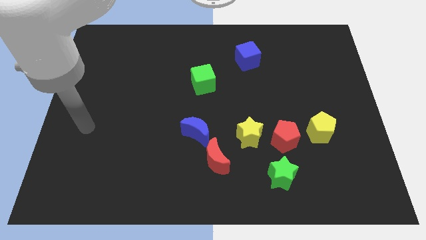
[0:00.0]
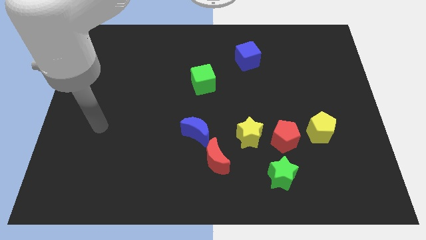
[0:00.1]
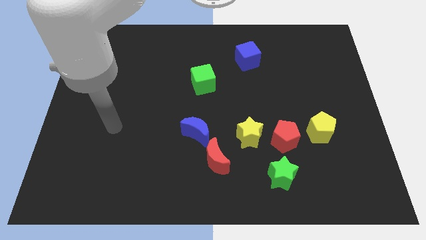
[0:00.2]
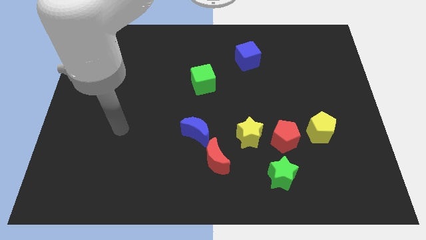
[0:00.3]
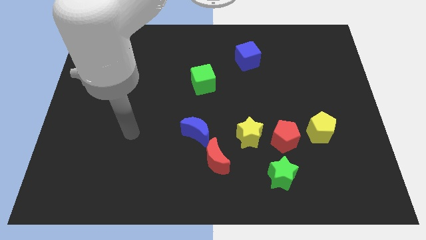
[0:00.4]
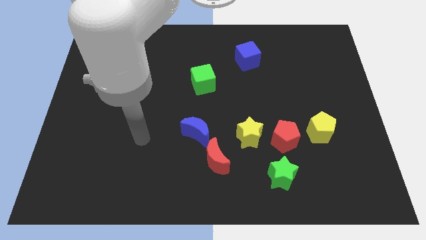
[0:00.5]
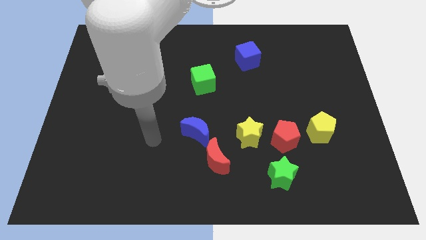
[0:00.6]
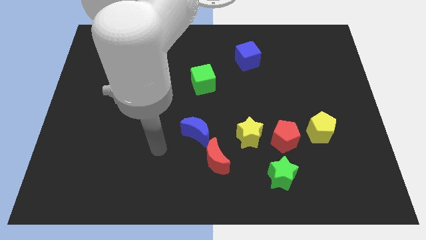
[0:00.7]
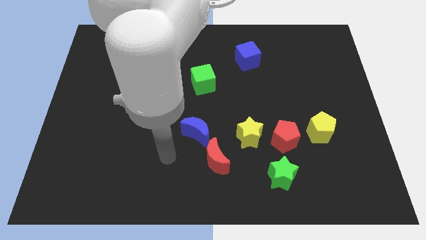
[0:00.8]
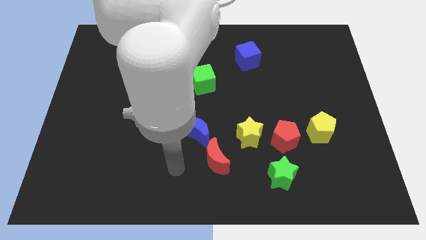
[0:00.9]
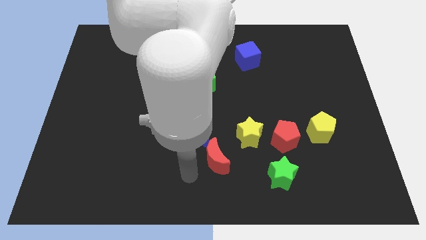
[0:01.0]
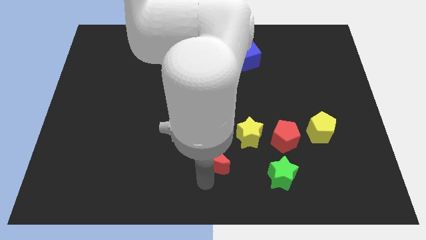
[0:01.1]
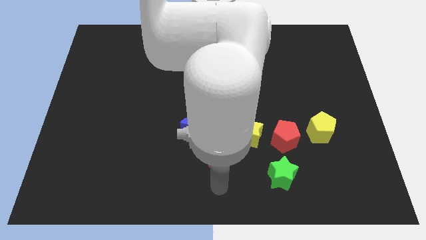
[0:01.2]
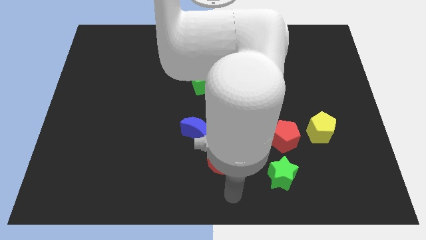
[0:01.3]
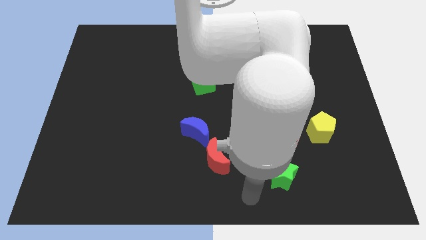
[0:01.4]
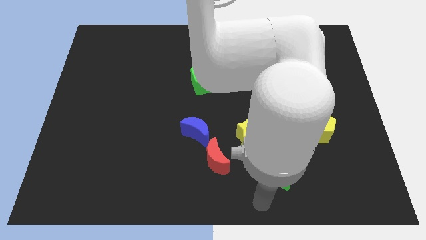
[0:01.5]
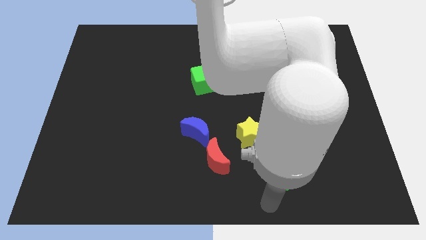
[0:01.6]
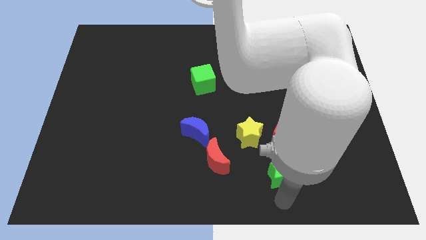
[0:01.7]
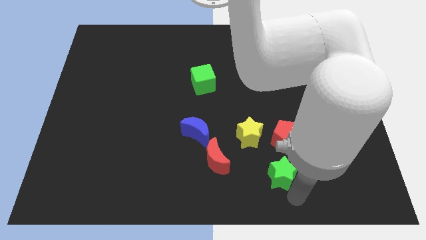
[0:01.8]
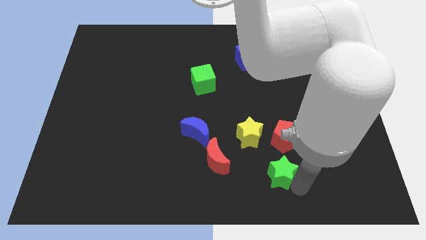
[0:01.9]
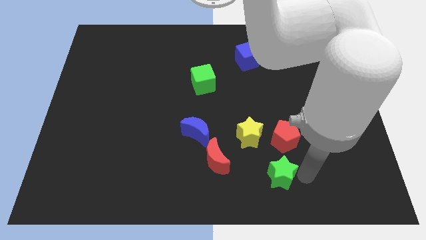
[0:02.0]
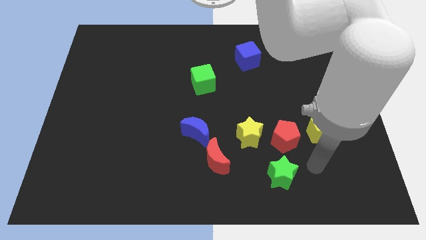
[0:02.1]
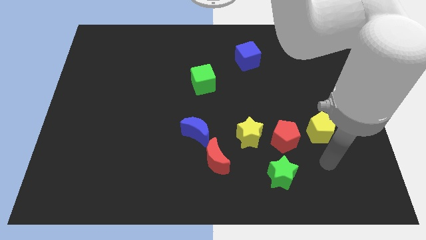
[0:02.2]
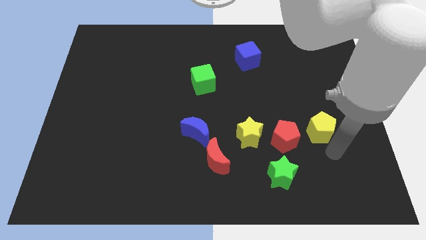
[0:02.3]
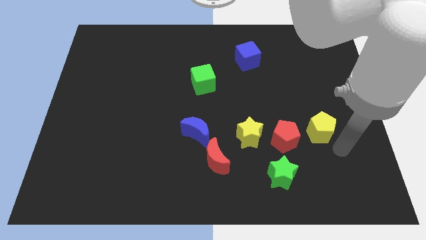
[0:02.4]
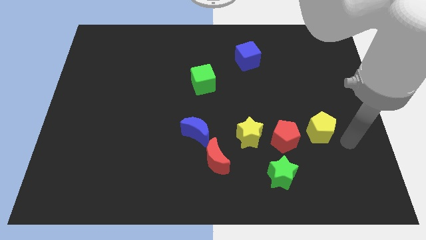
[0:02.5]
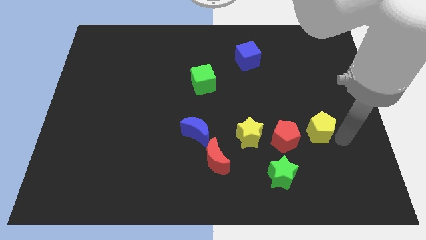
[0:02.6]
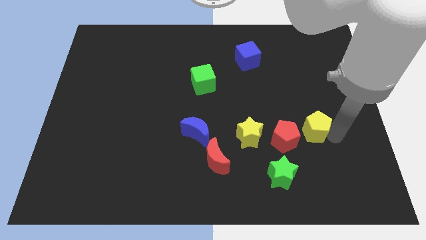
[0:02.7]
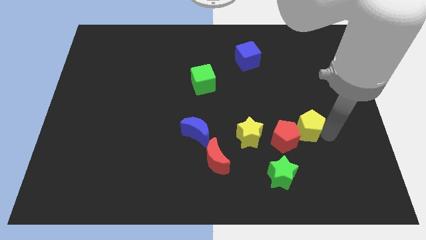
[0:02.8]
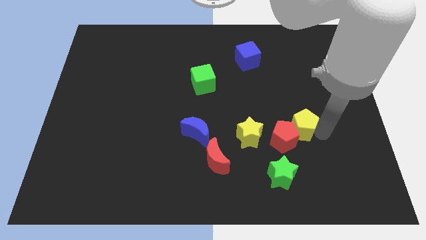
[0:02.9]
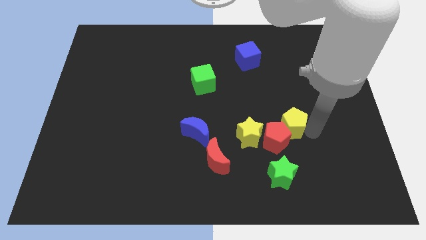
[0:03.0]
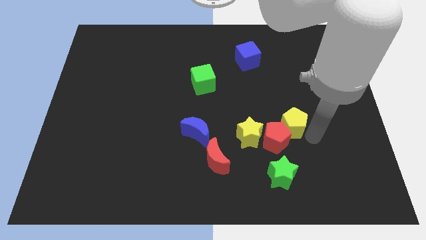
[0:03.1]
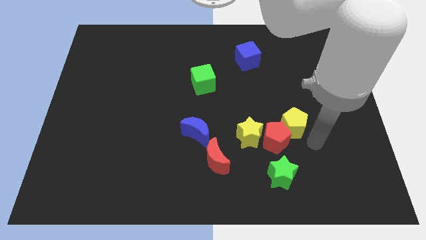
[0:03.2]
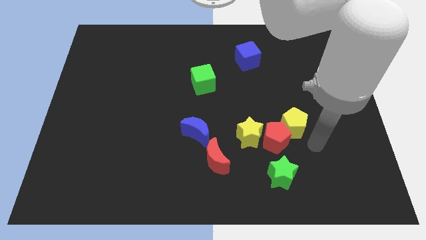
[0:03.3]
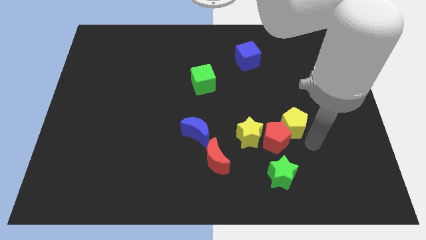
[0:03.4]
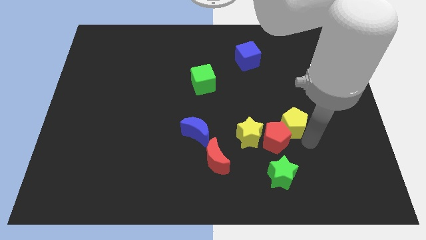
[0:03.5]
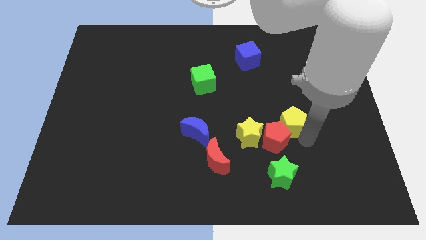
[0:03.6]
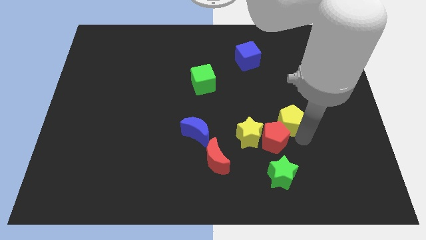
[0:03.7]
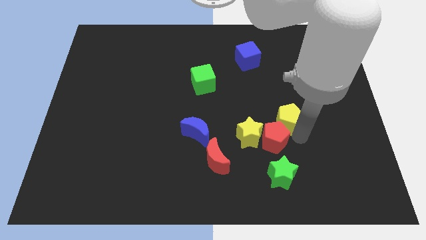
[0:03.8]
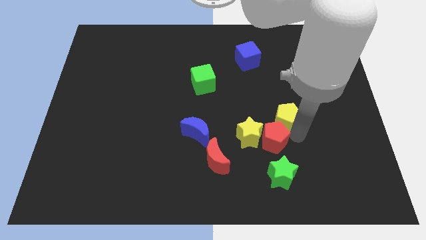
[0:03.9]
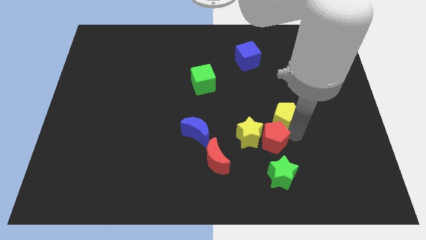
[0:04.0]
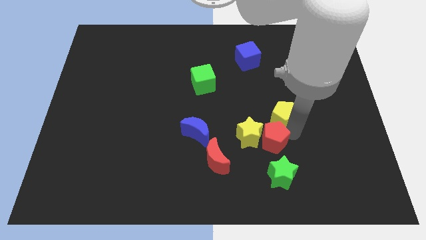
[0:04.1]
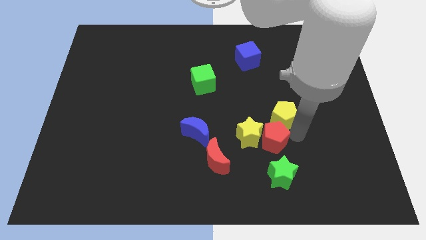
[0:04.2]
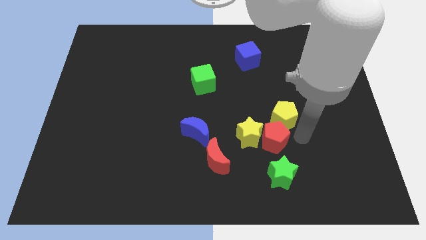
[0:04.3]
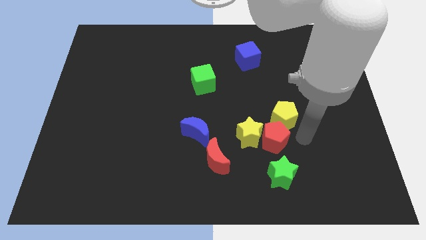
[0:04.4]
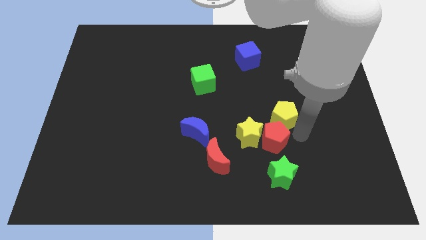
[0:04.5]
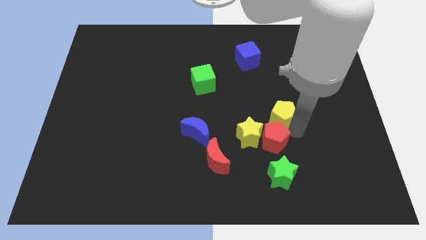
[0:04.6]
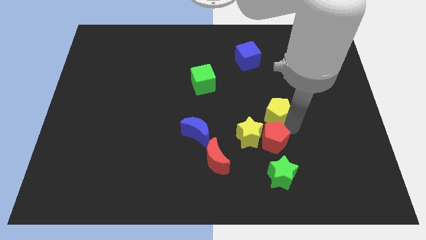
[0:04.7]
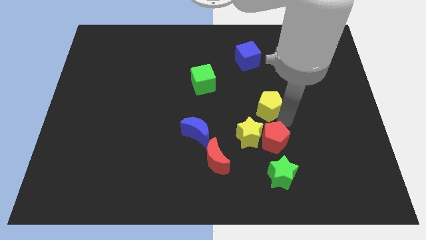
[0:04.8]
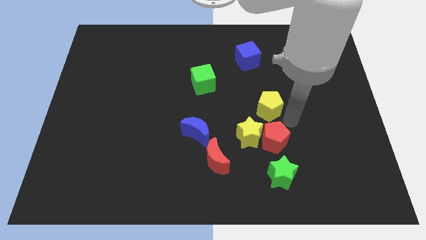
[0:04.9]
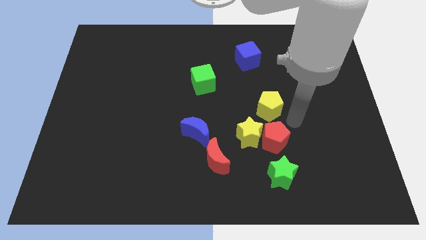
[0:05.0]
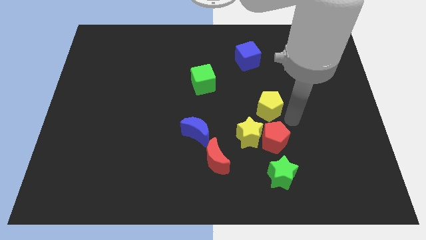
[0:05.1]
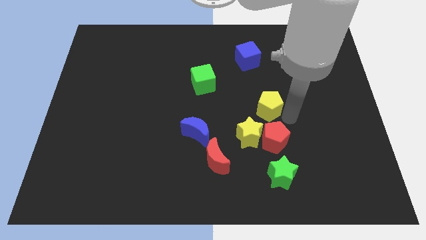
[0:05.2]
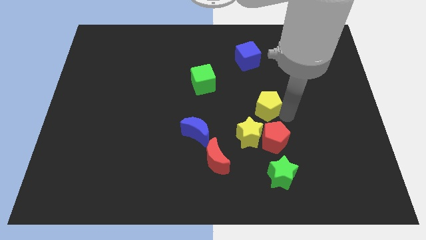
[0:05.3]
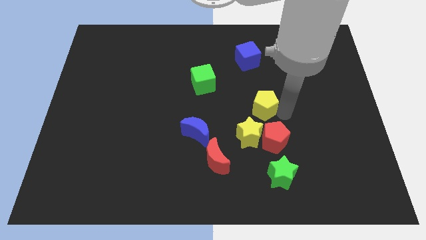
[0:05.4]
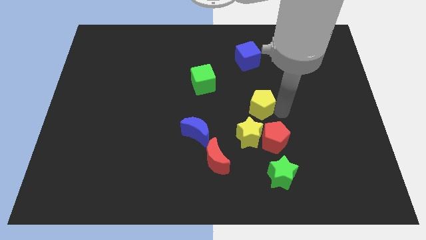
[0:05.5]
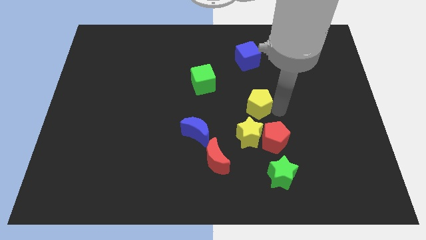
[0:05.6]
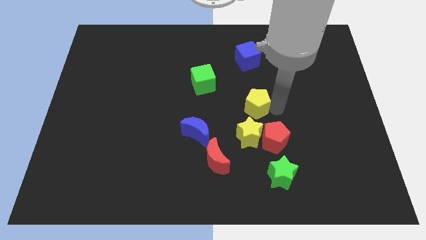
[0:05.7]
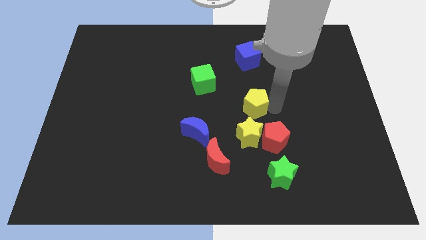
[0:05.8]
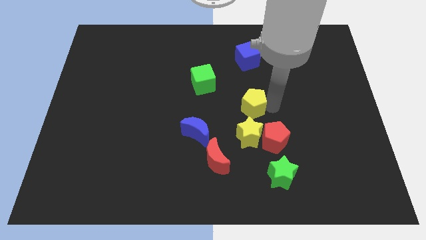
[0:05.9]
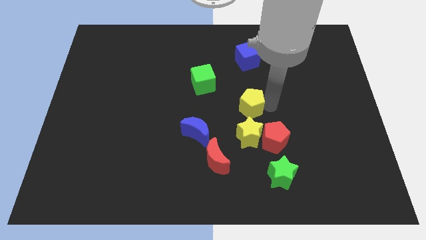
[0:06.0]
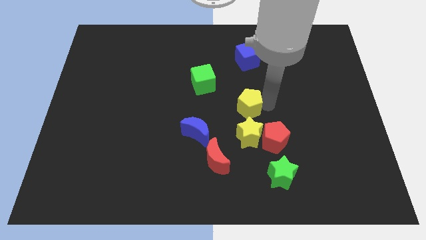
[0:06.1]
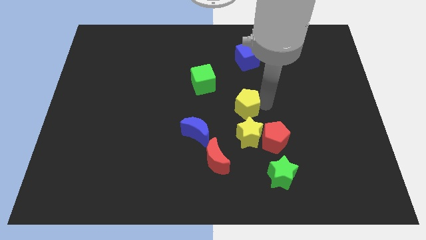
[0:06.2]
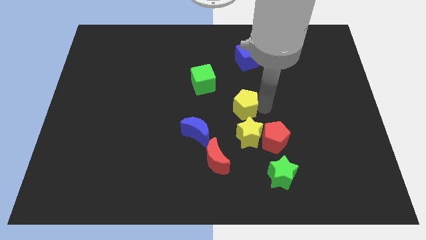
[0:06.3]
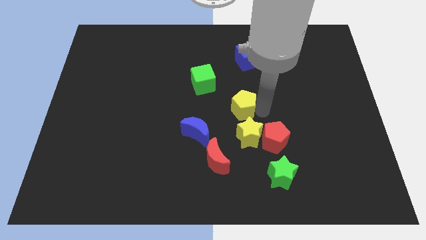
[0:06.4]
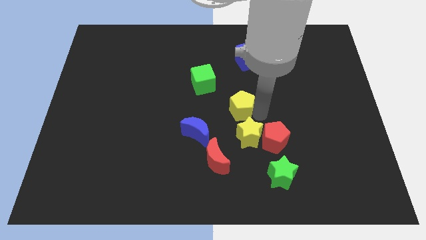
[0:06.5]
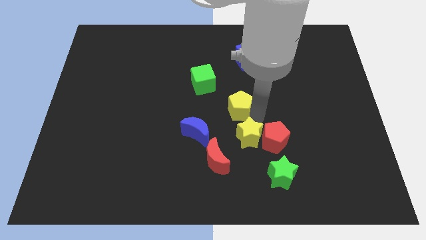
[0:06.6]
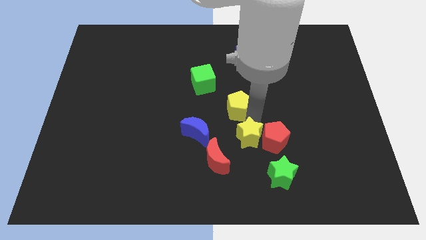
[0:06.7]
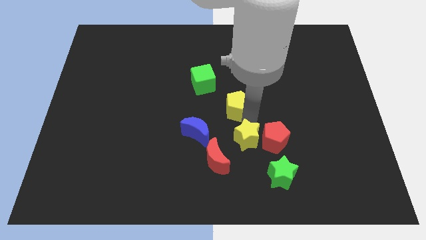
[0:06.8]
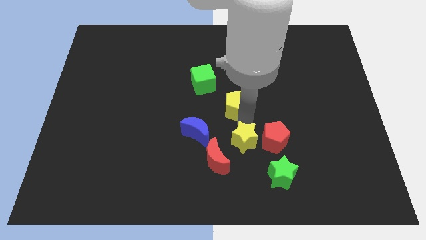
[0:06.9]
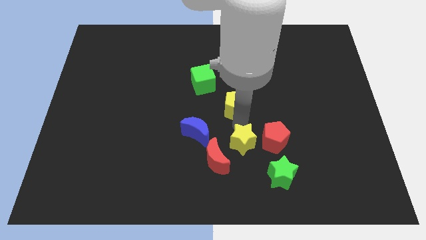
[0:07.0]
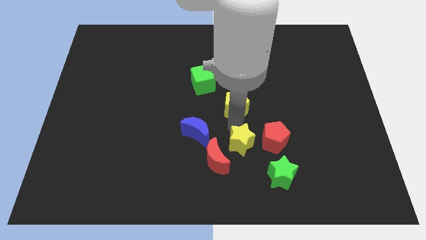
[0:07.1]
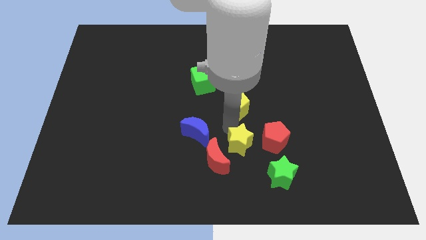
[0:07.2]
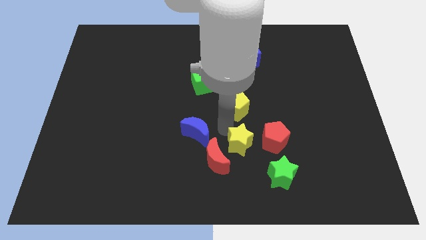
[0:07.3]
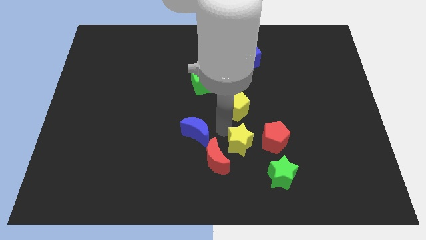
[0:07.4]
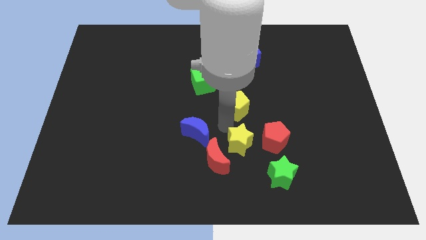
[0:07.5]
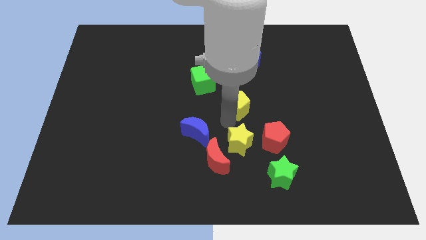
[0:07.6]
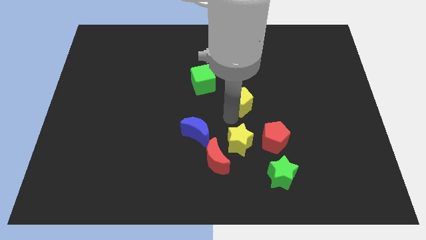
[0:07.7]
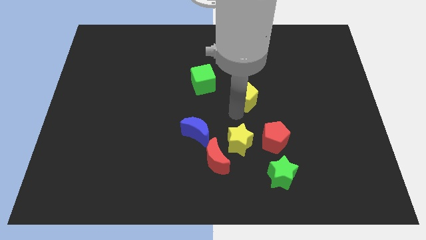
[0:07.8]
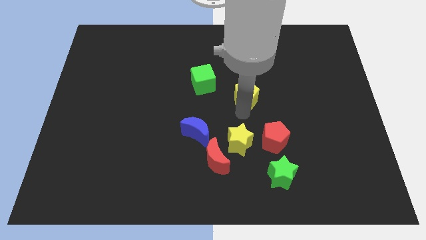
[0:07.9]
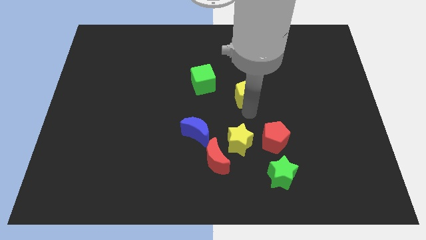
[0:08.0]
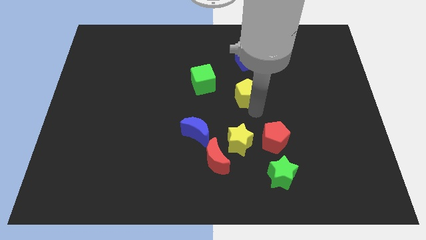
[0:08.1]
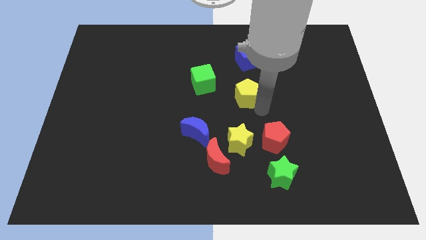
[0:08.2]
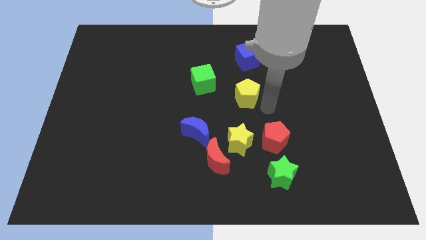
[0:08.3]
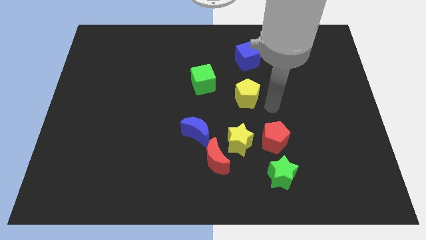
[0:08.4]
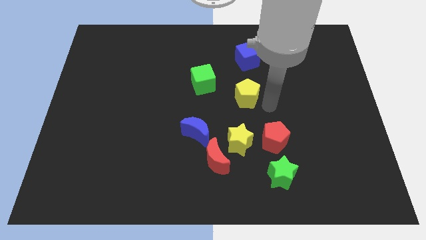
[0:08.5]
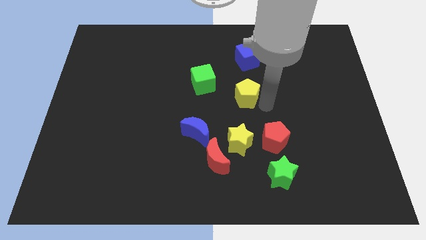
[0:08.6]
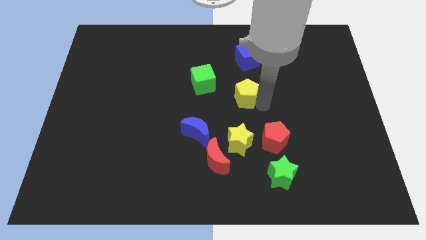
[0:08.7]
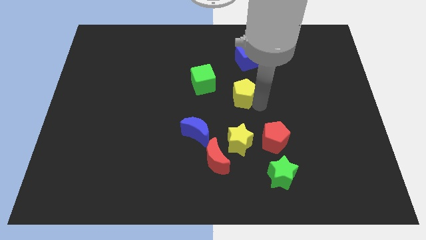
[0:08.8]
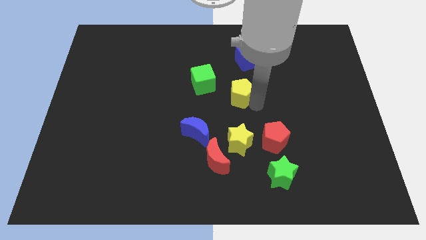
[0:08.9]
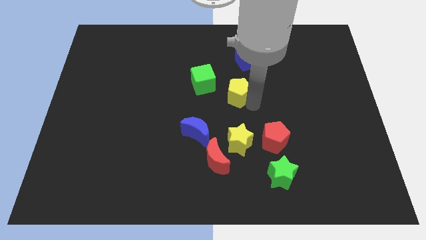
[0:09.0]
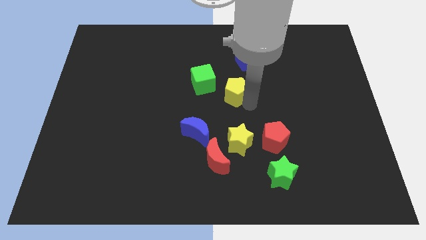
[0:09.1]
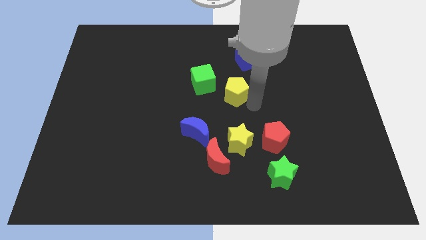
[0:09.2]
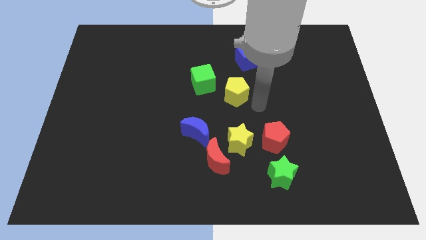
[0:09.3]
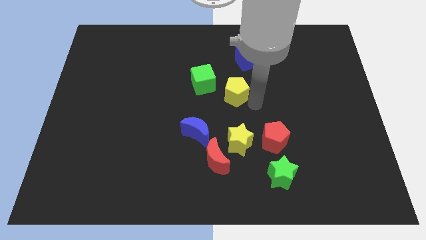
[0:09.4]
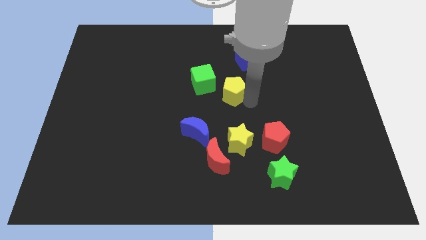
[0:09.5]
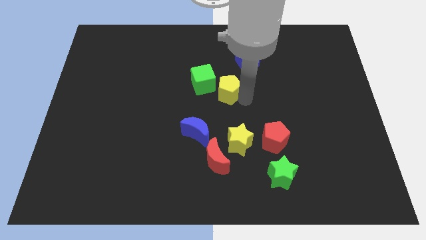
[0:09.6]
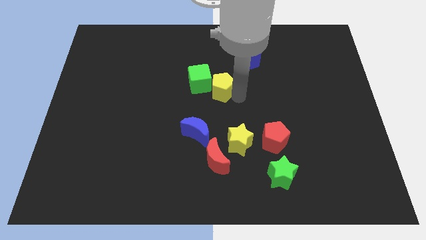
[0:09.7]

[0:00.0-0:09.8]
push the yellow pentagon to the green cube
